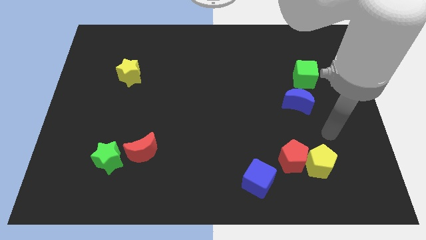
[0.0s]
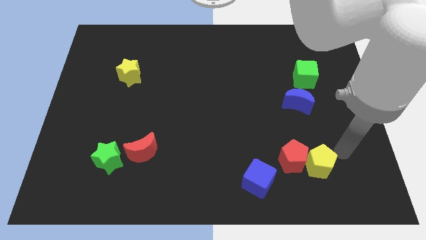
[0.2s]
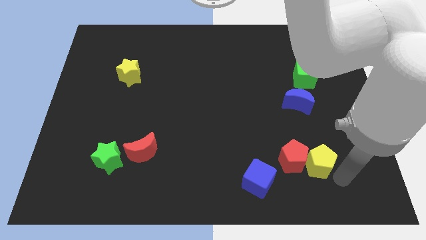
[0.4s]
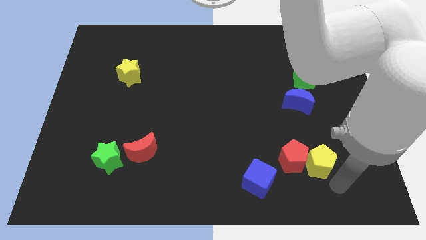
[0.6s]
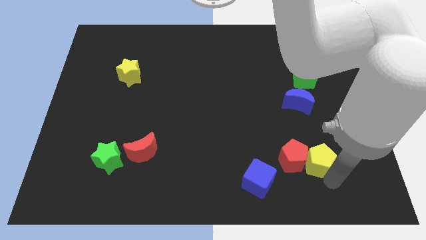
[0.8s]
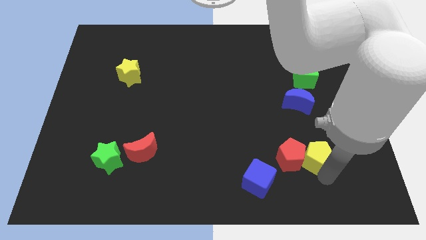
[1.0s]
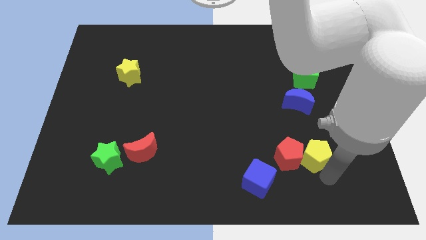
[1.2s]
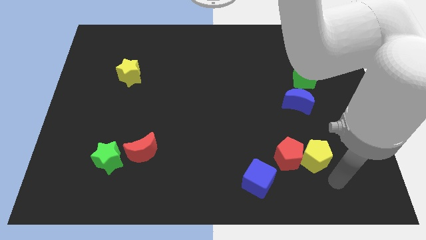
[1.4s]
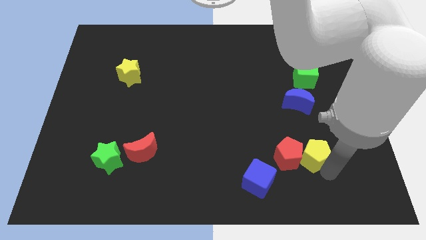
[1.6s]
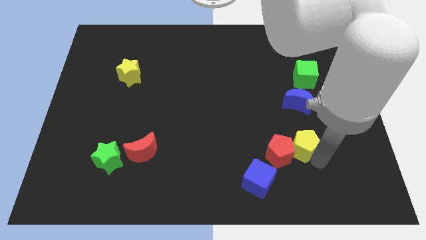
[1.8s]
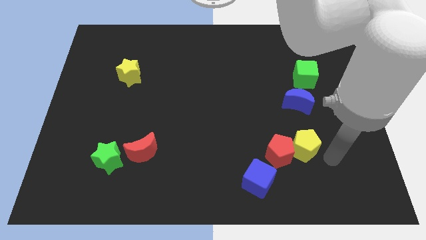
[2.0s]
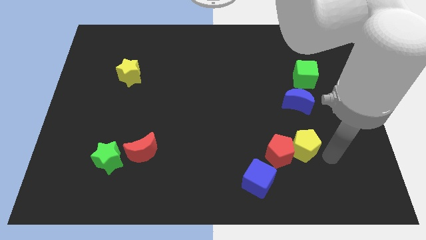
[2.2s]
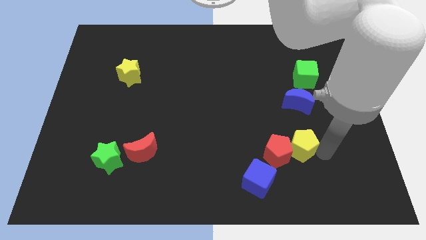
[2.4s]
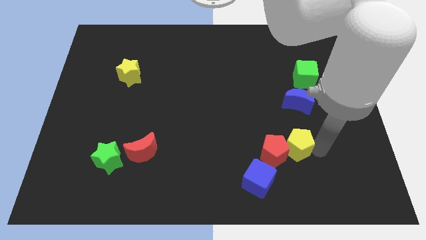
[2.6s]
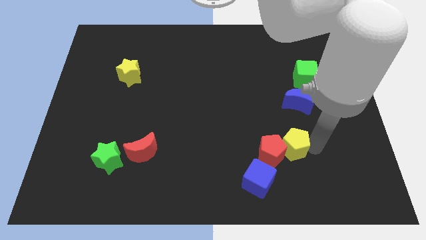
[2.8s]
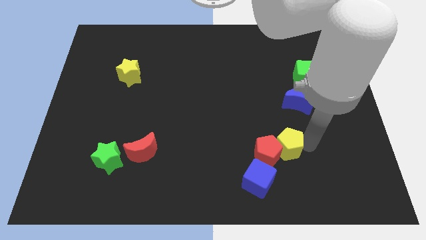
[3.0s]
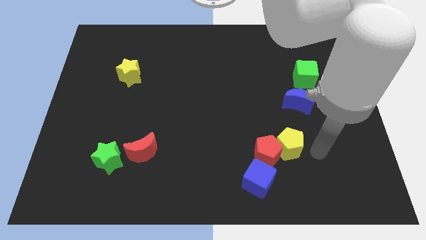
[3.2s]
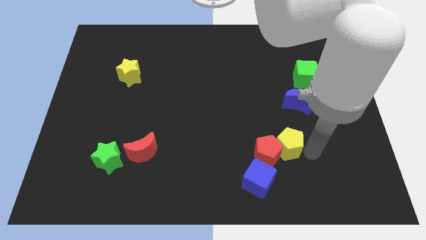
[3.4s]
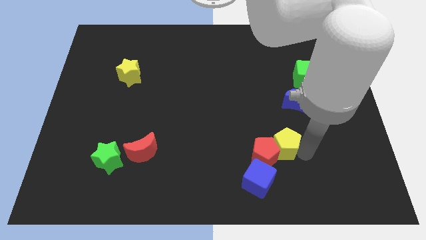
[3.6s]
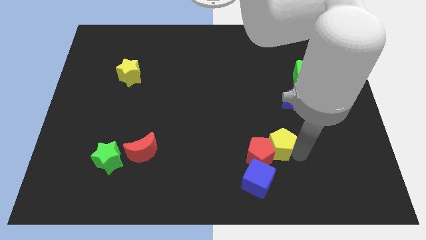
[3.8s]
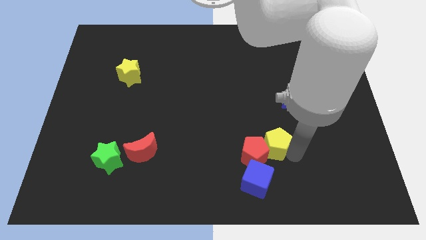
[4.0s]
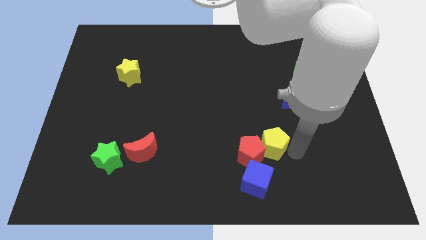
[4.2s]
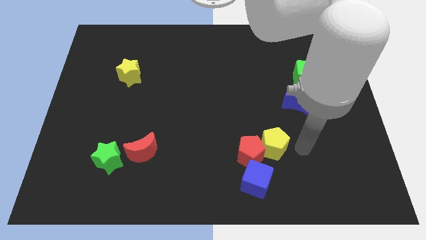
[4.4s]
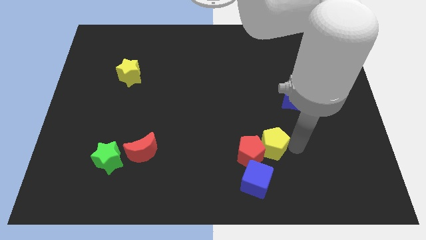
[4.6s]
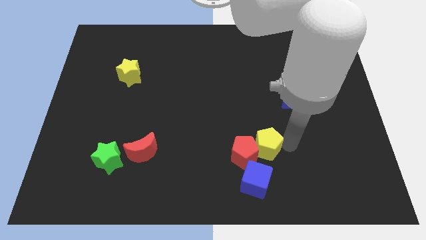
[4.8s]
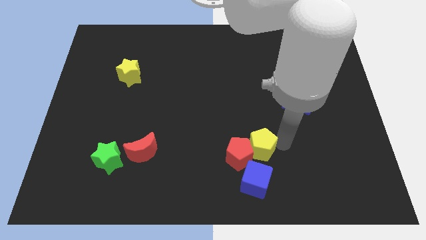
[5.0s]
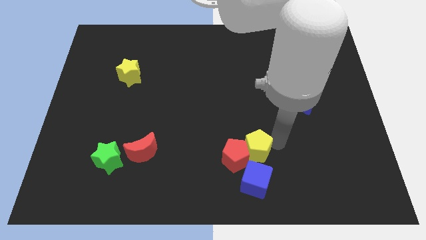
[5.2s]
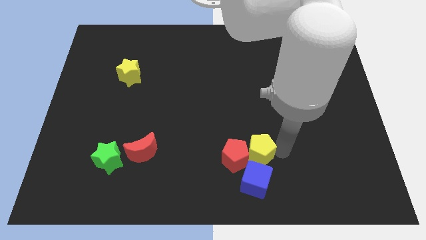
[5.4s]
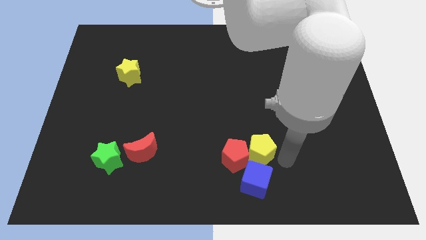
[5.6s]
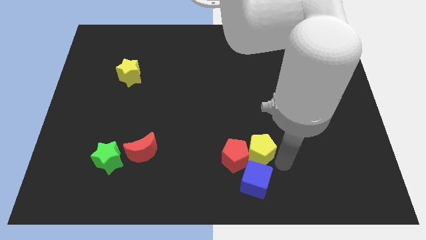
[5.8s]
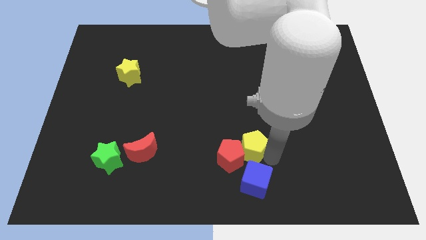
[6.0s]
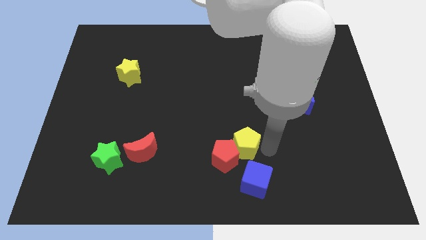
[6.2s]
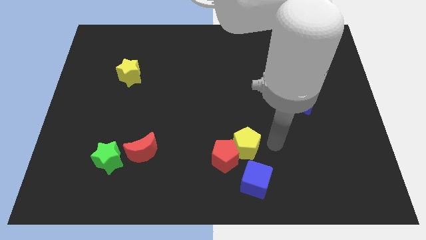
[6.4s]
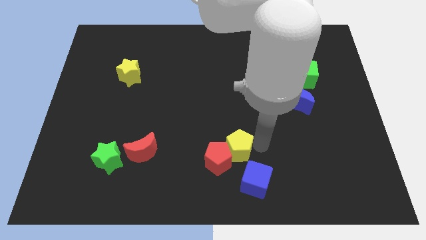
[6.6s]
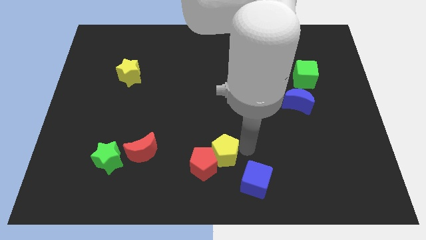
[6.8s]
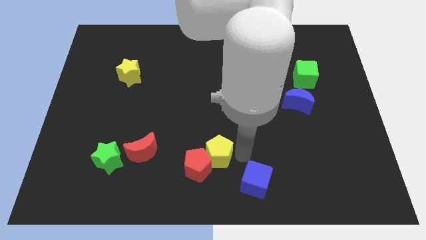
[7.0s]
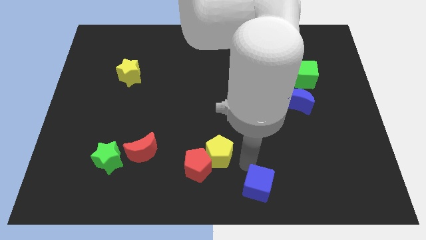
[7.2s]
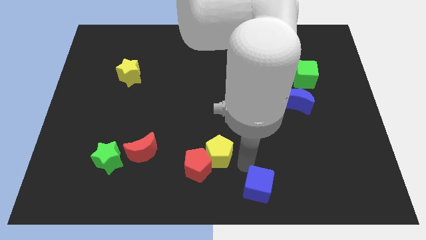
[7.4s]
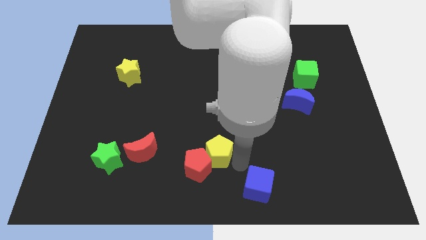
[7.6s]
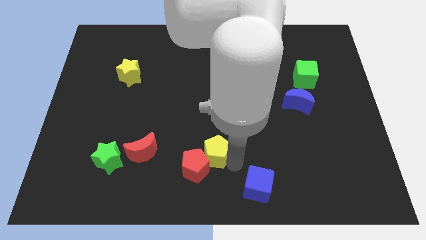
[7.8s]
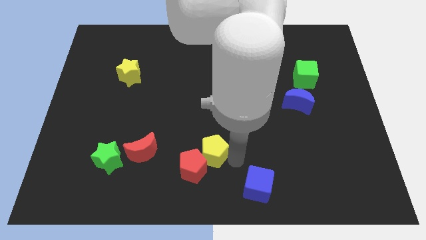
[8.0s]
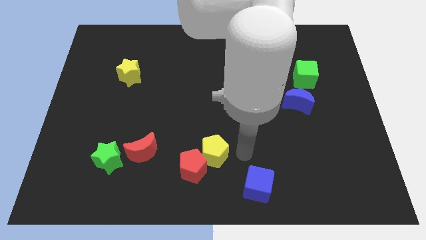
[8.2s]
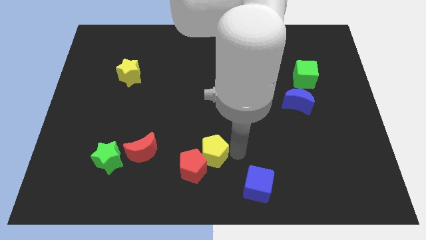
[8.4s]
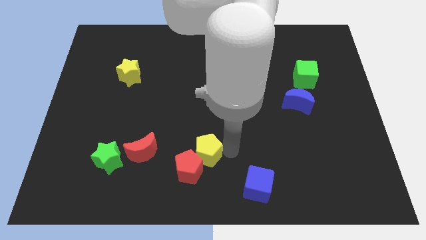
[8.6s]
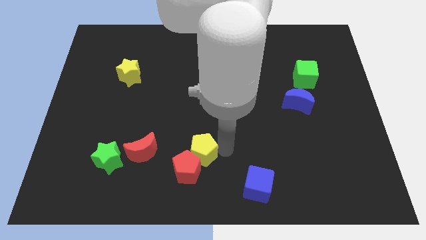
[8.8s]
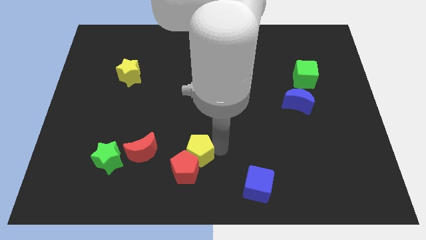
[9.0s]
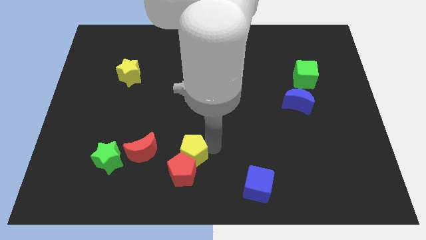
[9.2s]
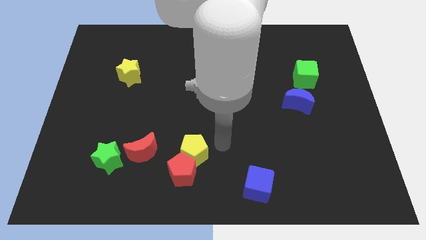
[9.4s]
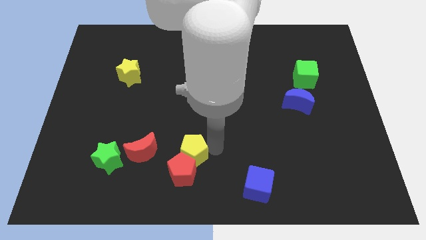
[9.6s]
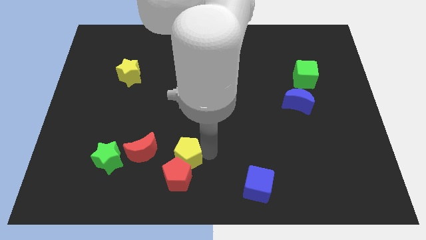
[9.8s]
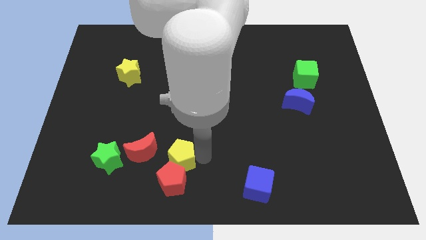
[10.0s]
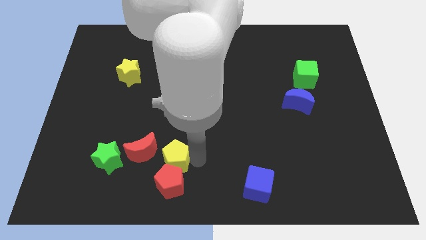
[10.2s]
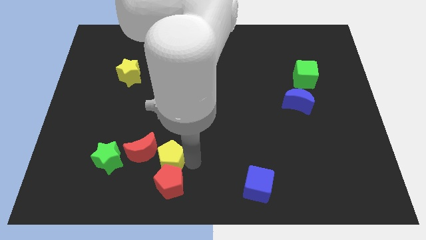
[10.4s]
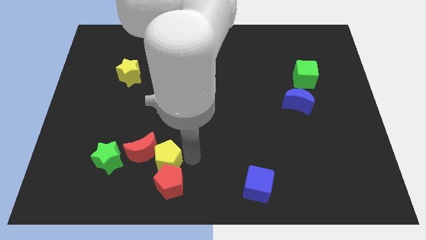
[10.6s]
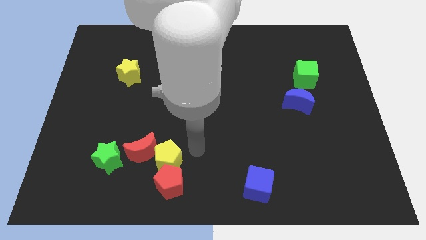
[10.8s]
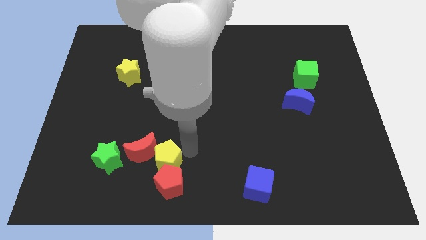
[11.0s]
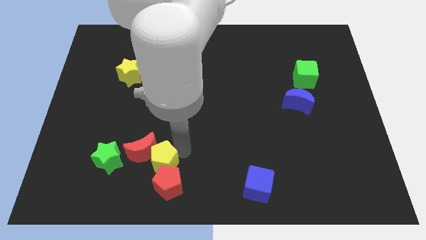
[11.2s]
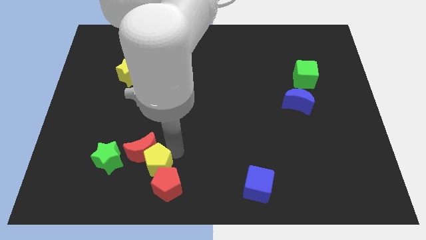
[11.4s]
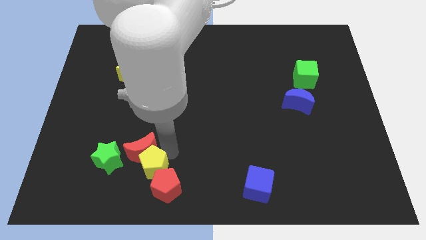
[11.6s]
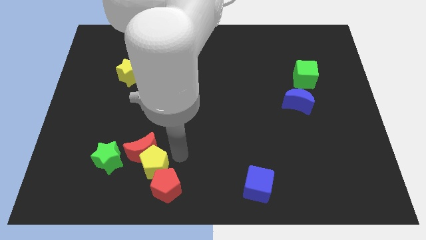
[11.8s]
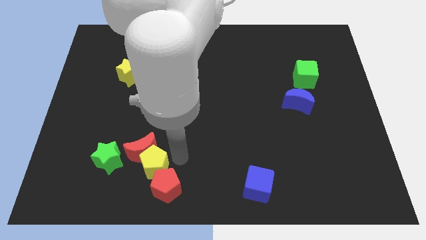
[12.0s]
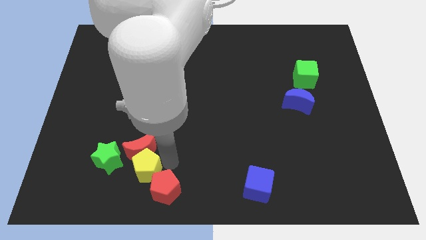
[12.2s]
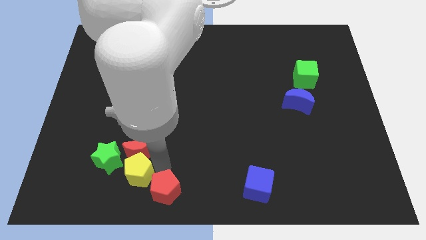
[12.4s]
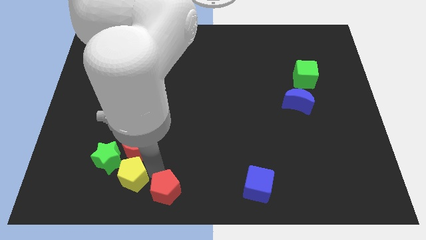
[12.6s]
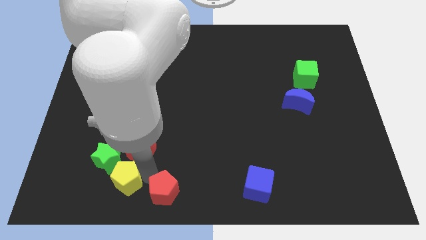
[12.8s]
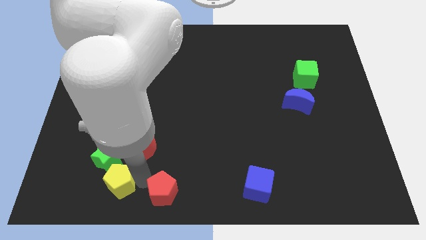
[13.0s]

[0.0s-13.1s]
push the yellow pentagon towards the green star
